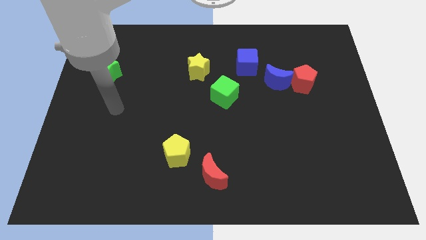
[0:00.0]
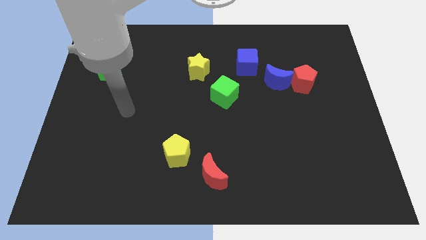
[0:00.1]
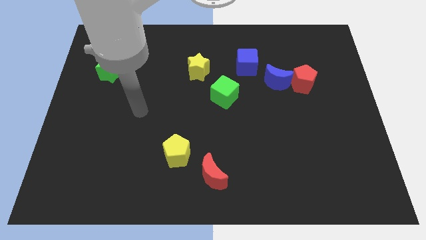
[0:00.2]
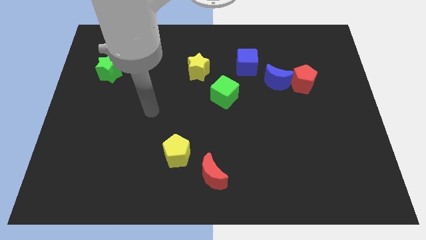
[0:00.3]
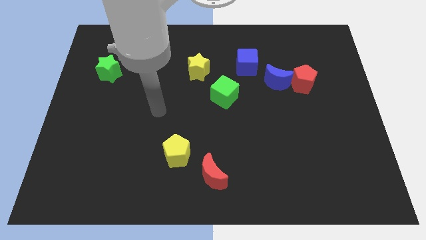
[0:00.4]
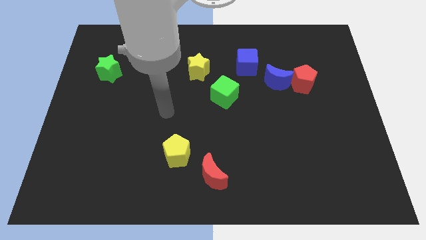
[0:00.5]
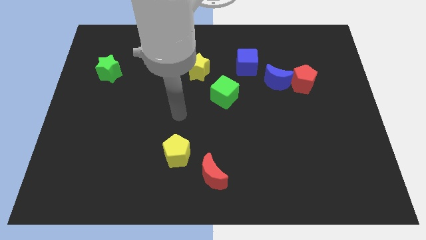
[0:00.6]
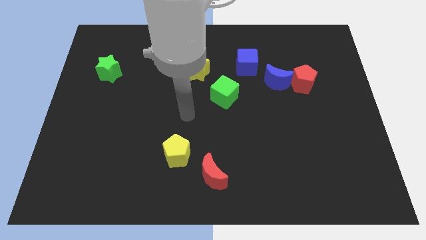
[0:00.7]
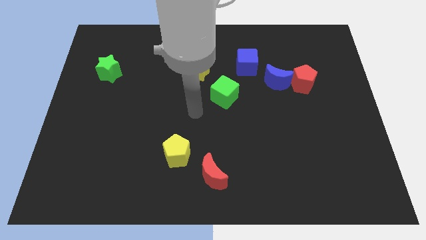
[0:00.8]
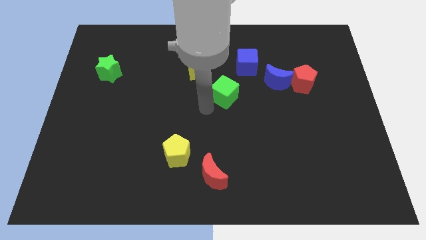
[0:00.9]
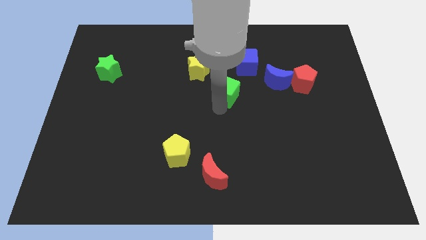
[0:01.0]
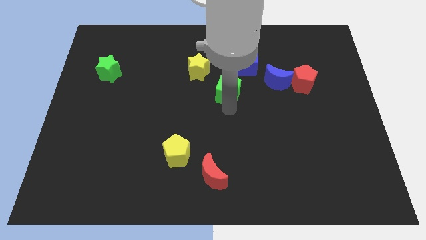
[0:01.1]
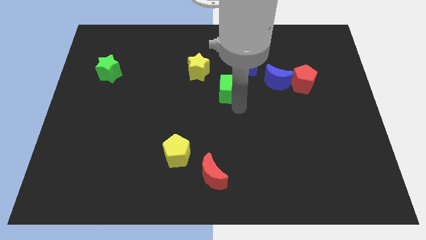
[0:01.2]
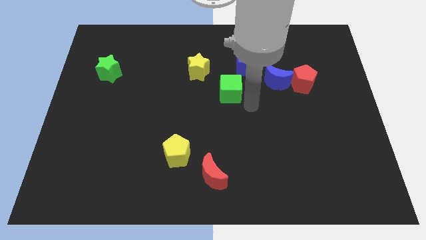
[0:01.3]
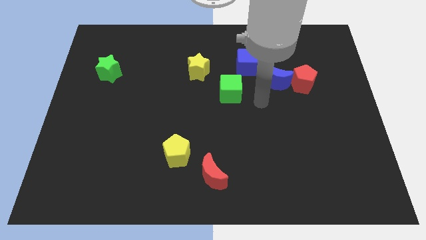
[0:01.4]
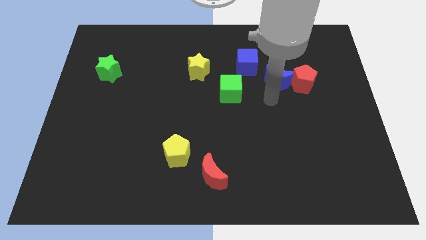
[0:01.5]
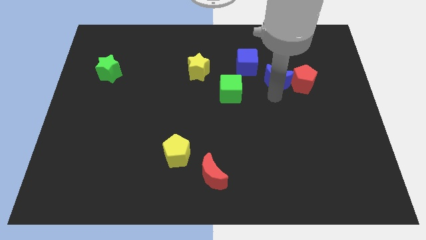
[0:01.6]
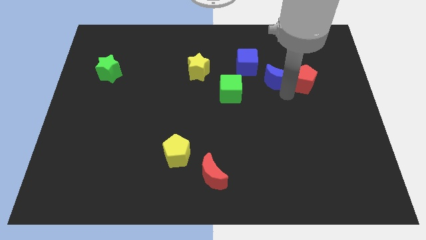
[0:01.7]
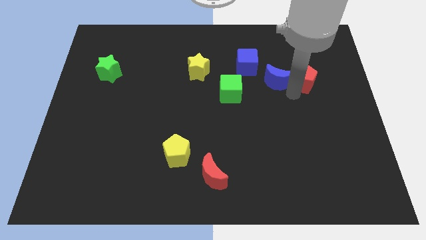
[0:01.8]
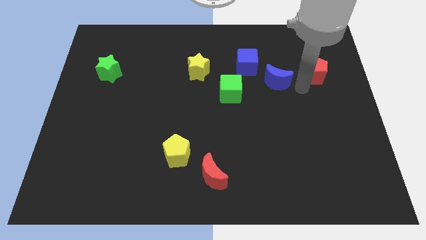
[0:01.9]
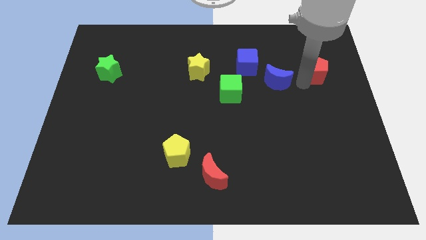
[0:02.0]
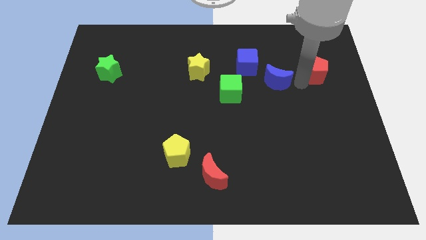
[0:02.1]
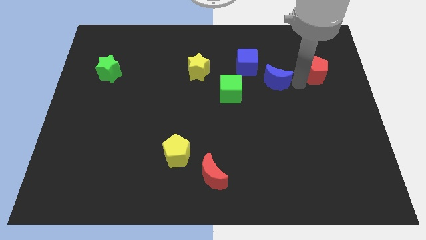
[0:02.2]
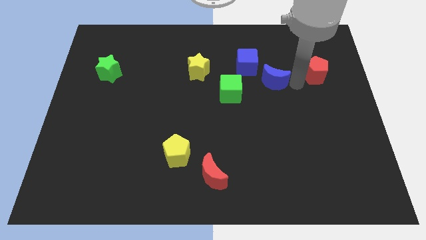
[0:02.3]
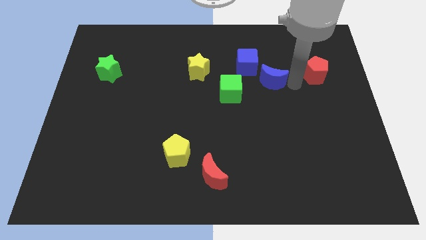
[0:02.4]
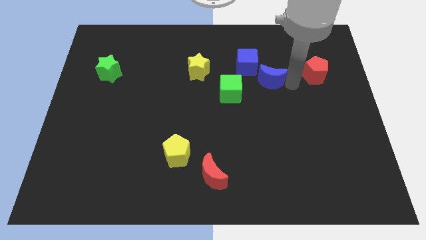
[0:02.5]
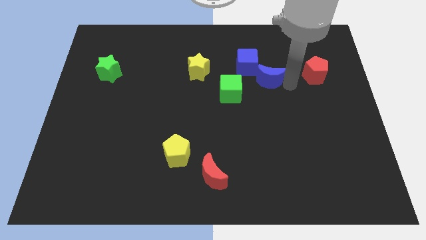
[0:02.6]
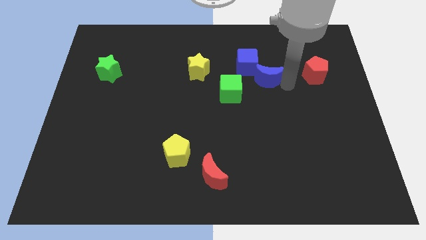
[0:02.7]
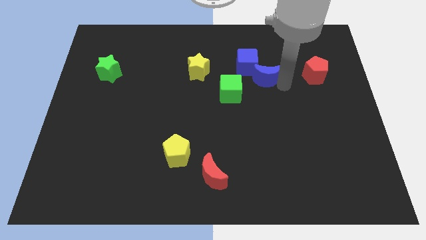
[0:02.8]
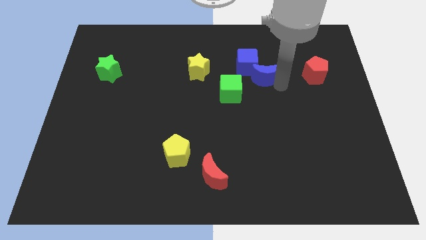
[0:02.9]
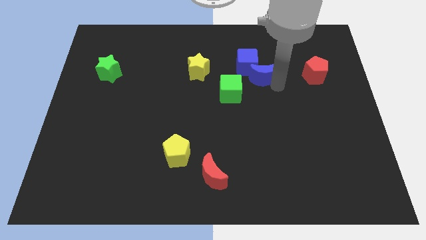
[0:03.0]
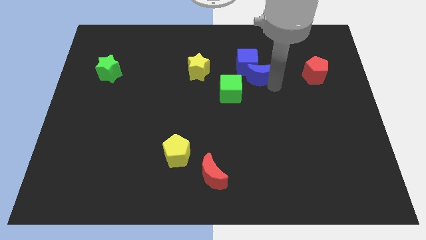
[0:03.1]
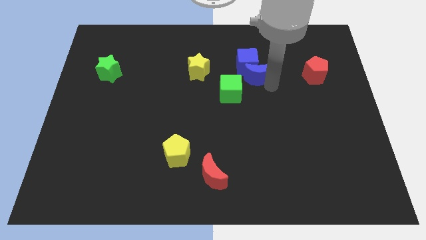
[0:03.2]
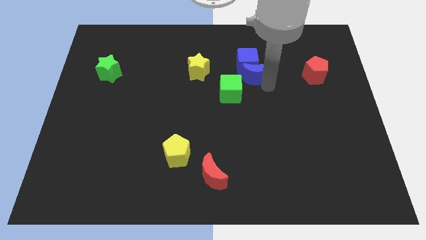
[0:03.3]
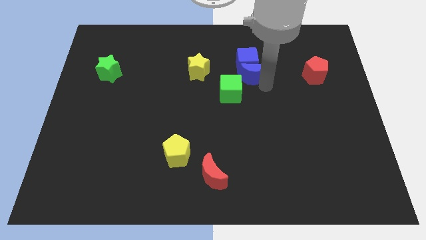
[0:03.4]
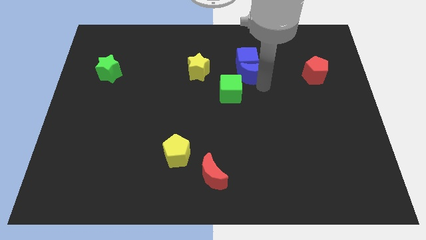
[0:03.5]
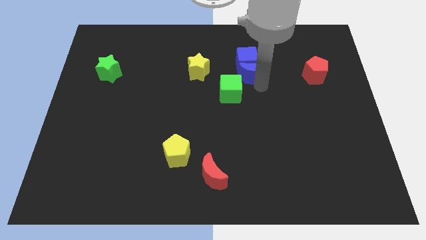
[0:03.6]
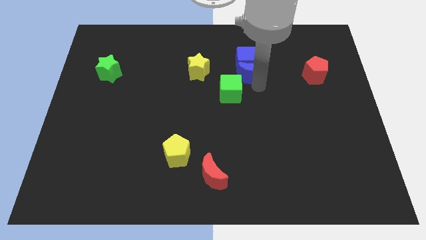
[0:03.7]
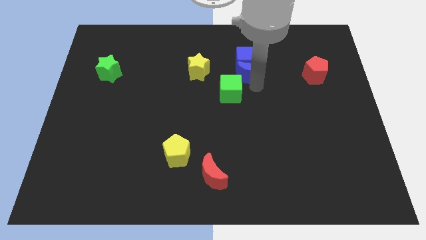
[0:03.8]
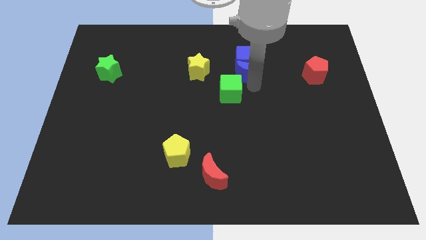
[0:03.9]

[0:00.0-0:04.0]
slightly slide the blue moon to the left

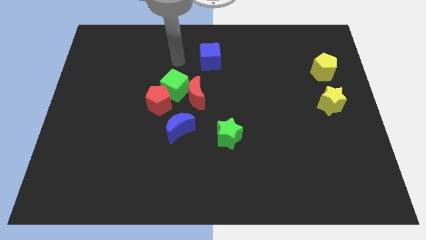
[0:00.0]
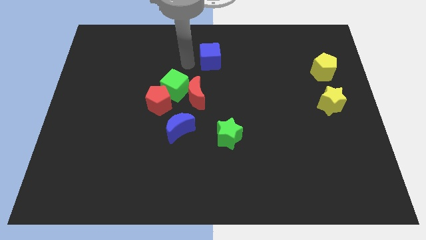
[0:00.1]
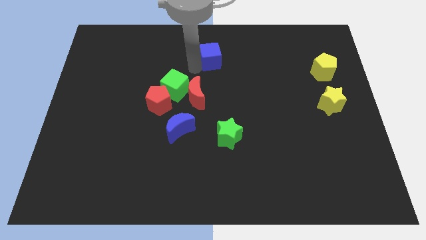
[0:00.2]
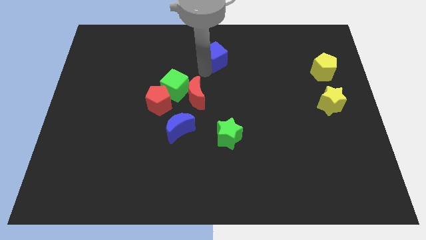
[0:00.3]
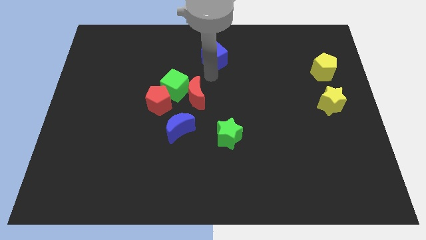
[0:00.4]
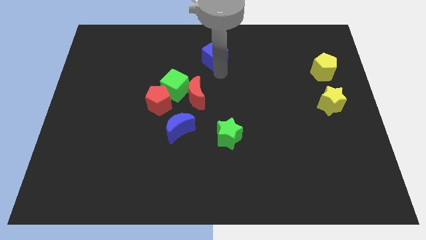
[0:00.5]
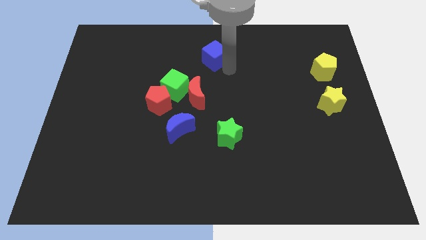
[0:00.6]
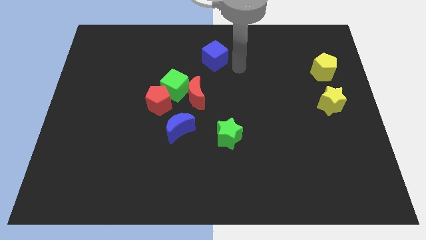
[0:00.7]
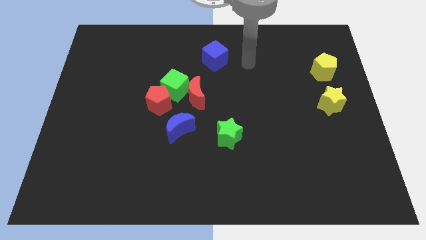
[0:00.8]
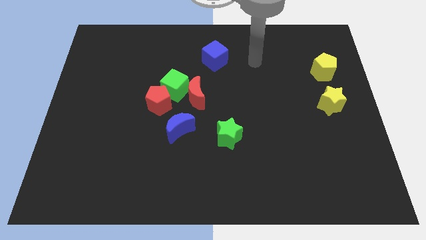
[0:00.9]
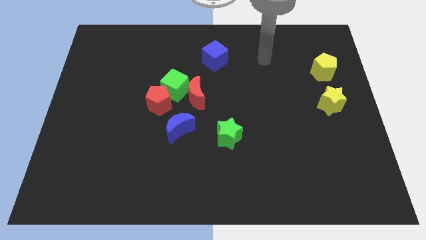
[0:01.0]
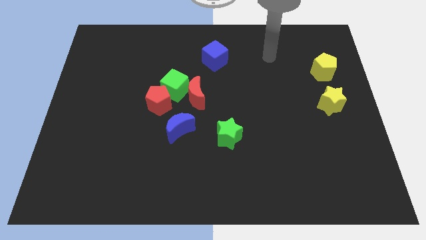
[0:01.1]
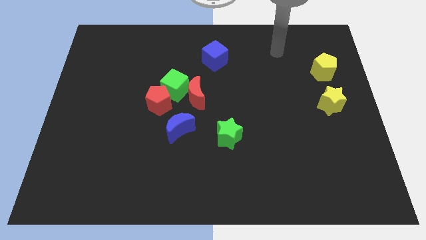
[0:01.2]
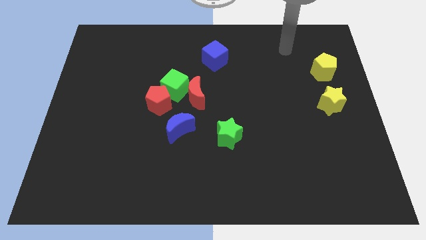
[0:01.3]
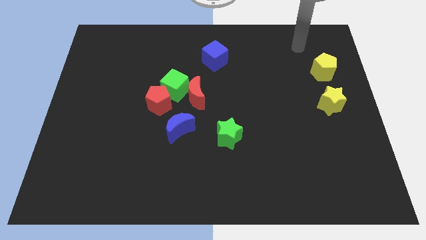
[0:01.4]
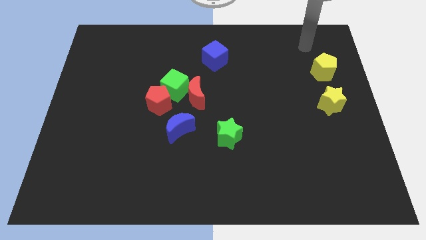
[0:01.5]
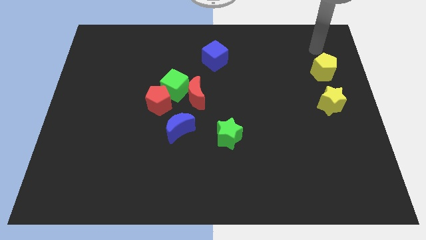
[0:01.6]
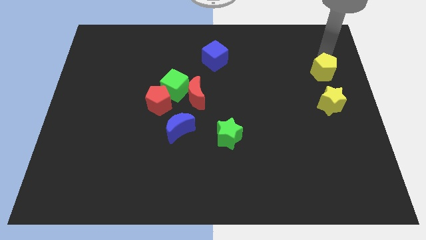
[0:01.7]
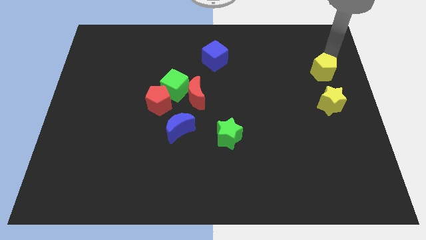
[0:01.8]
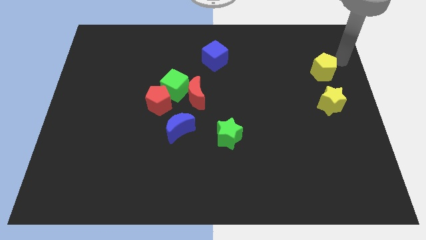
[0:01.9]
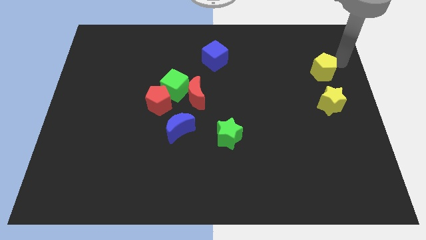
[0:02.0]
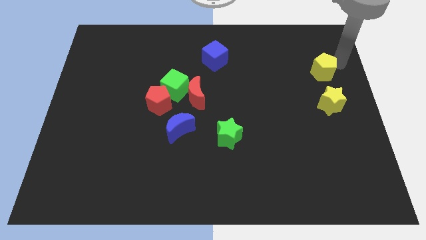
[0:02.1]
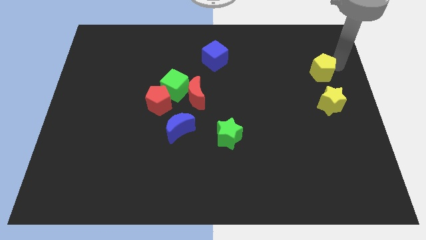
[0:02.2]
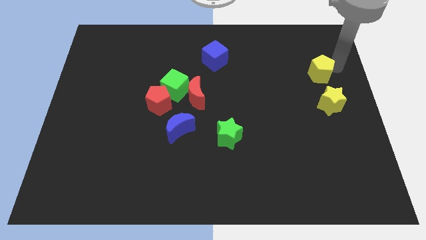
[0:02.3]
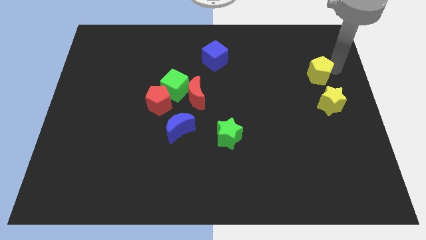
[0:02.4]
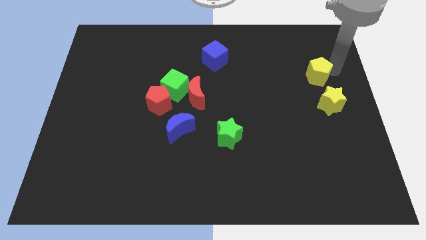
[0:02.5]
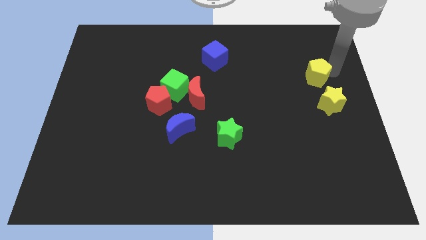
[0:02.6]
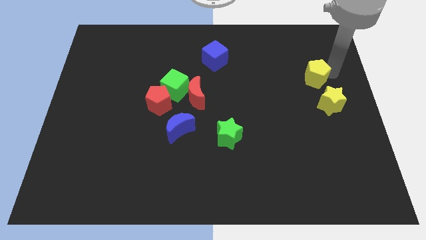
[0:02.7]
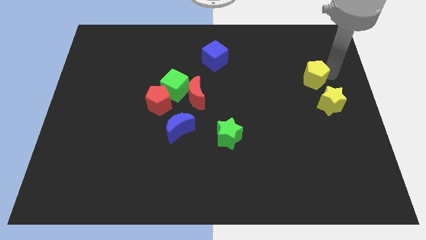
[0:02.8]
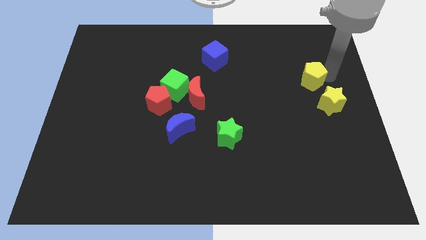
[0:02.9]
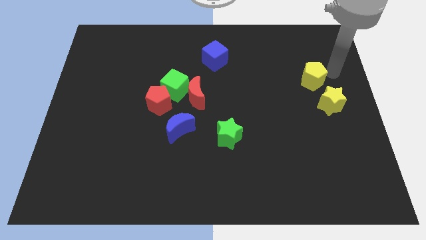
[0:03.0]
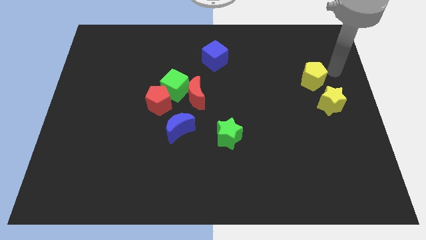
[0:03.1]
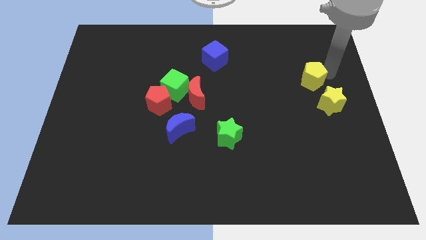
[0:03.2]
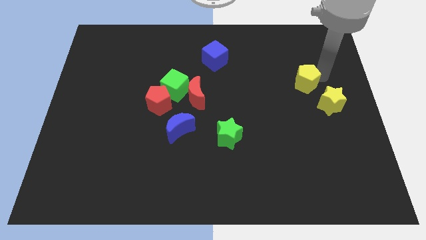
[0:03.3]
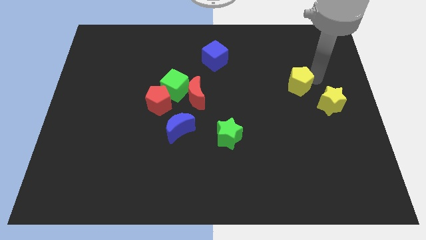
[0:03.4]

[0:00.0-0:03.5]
push the yellow pentagon somewhat down and left

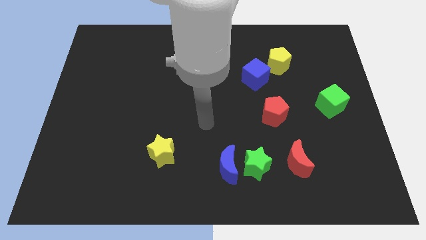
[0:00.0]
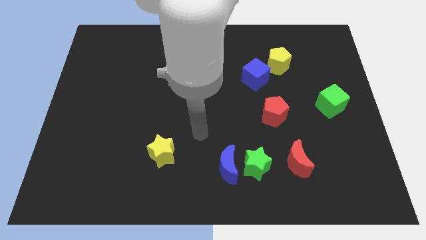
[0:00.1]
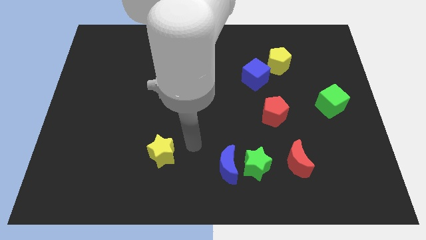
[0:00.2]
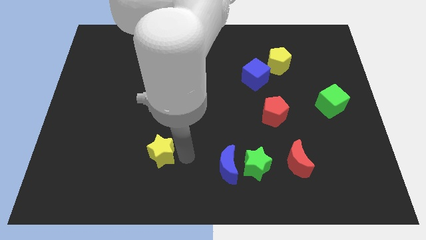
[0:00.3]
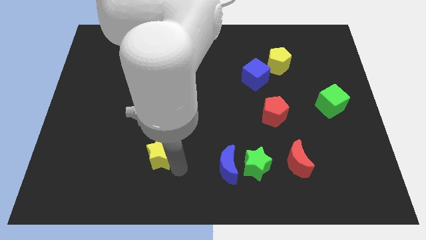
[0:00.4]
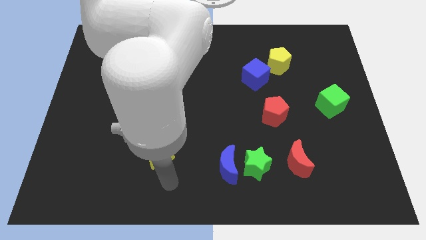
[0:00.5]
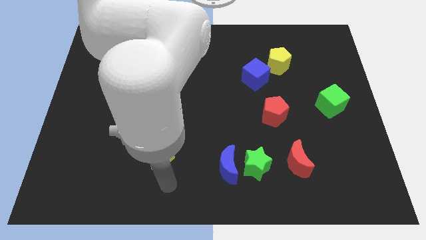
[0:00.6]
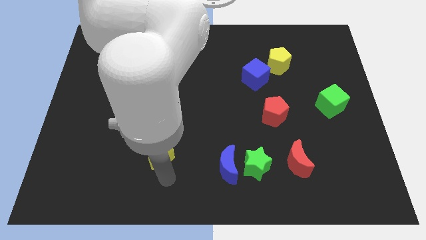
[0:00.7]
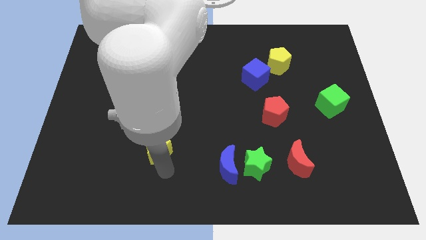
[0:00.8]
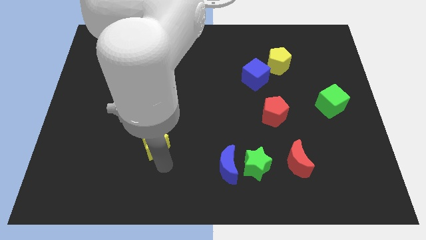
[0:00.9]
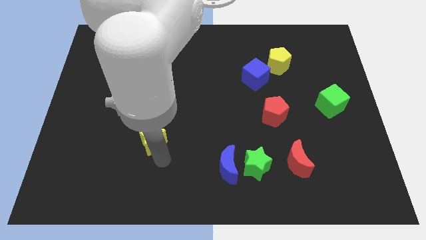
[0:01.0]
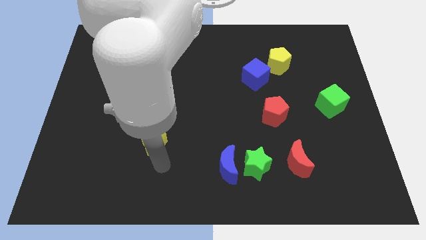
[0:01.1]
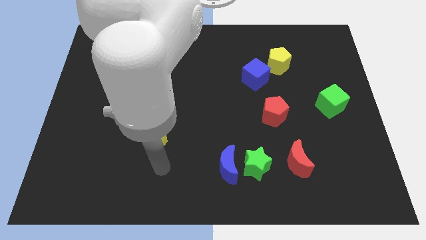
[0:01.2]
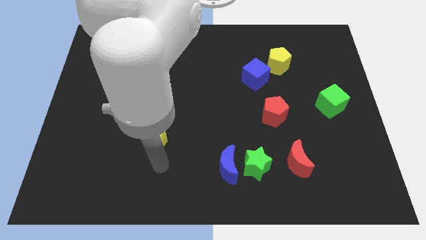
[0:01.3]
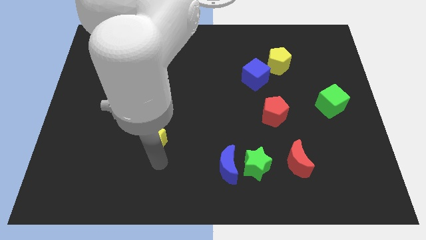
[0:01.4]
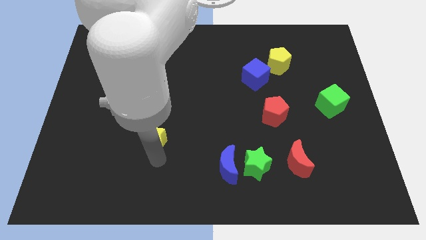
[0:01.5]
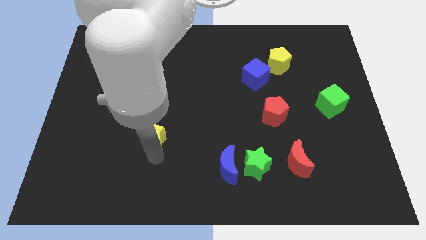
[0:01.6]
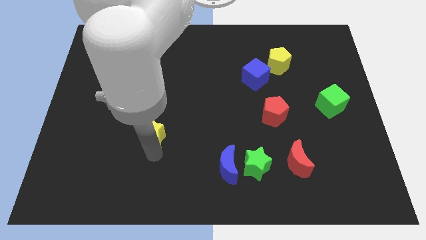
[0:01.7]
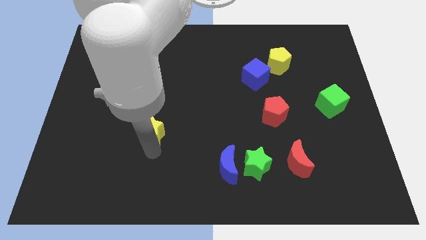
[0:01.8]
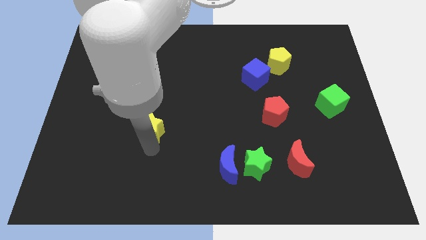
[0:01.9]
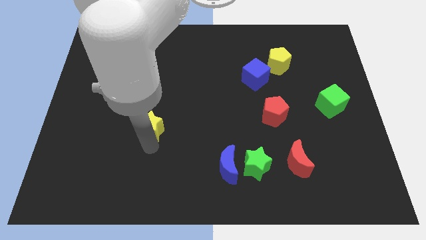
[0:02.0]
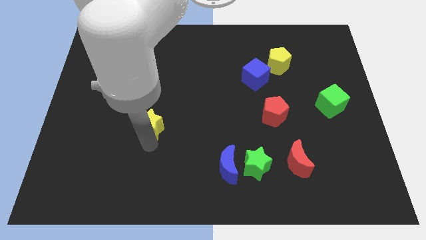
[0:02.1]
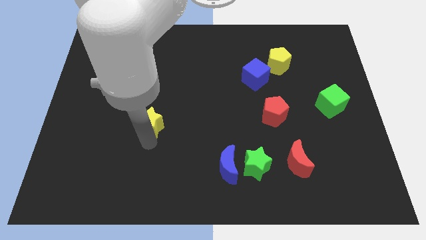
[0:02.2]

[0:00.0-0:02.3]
move the yellow star a little bit up
